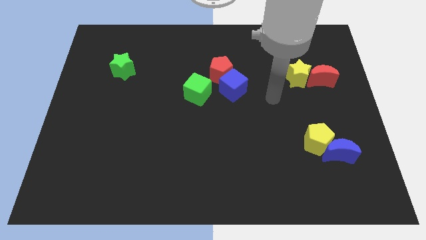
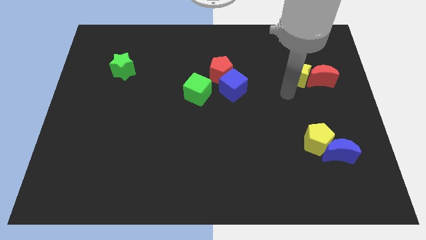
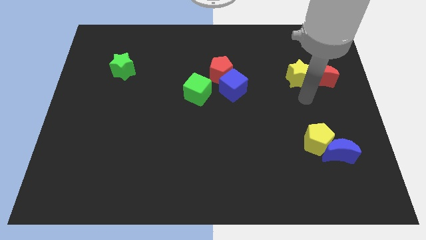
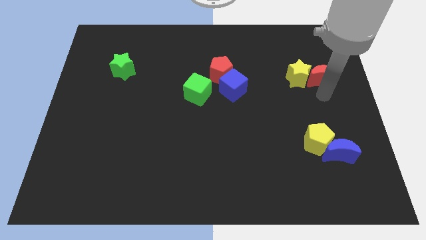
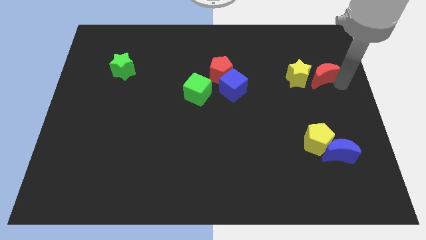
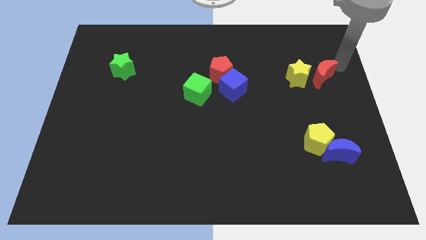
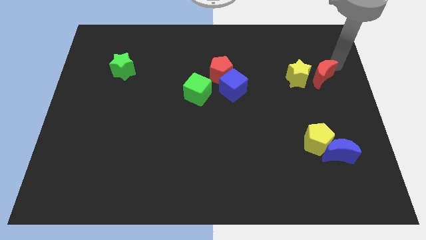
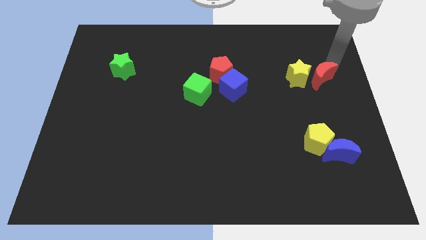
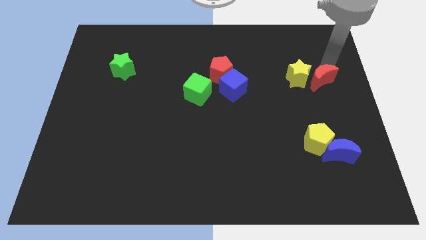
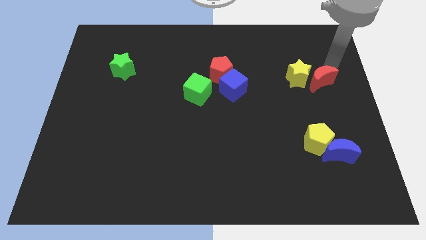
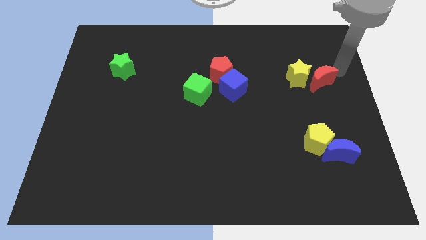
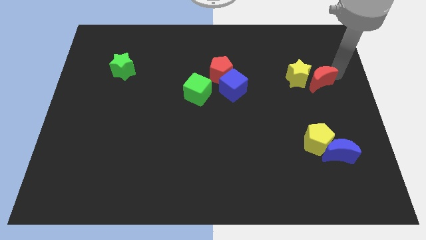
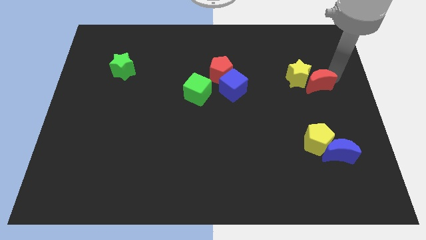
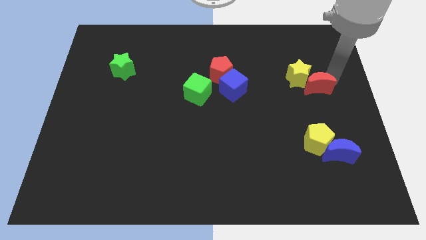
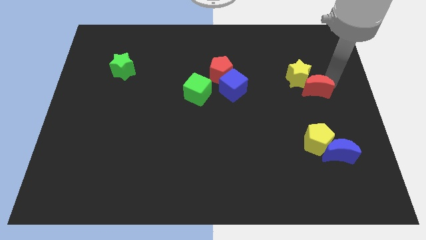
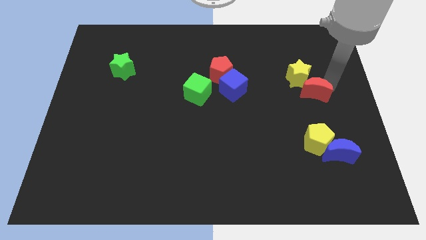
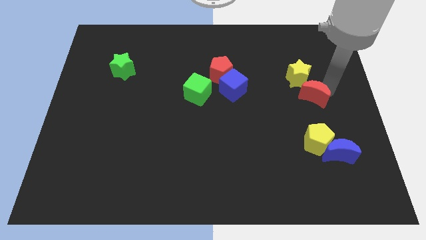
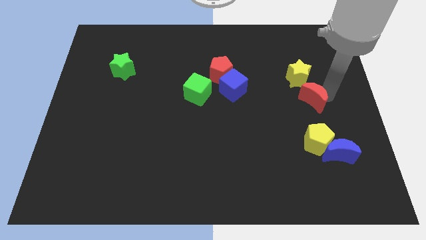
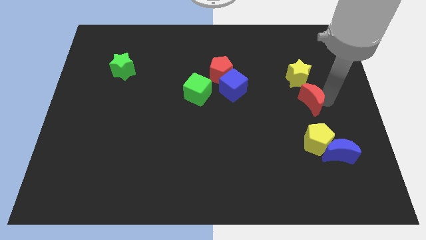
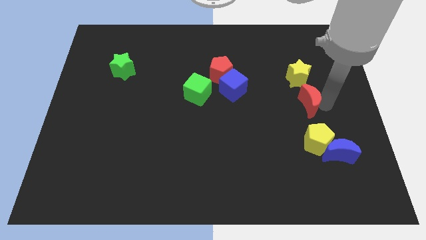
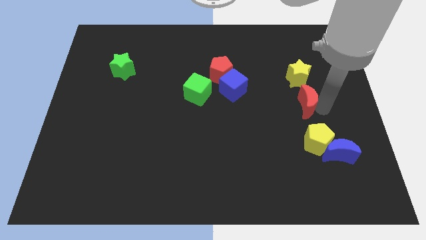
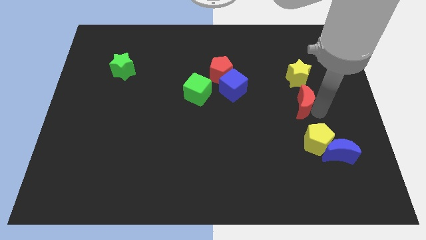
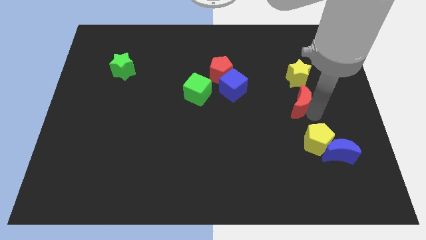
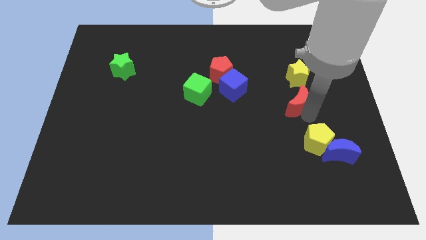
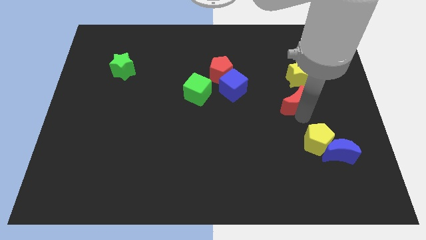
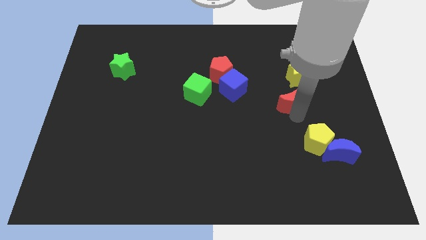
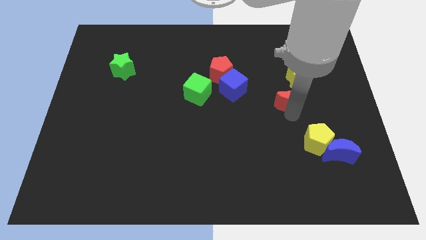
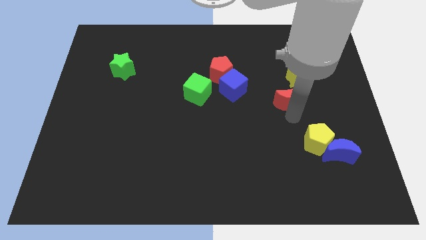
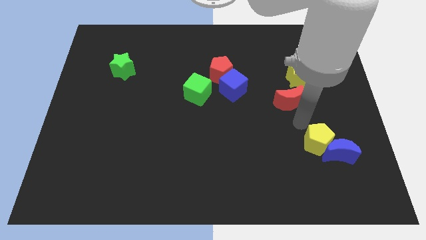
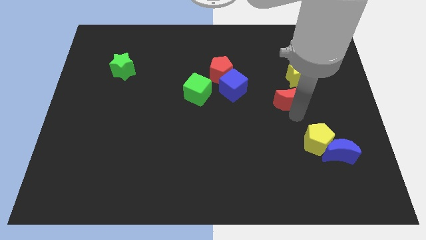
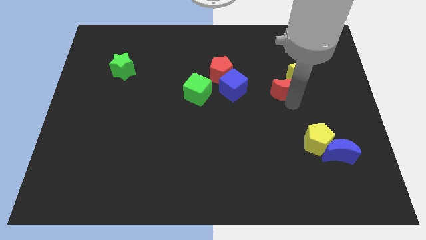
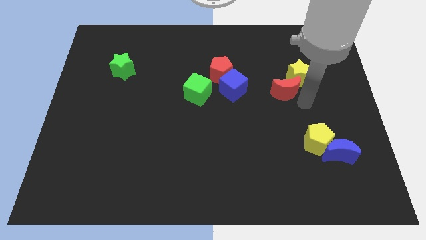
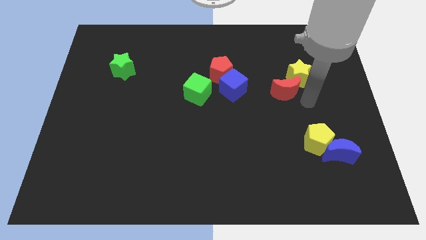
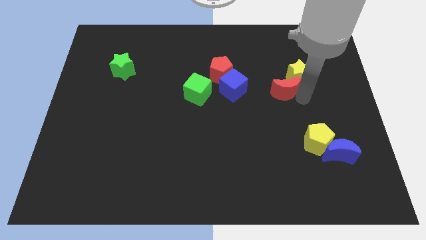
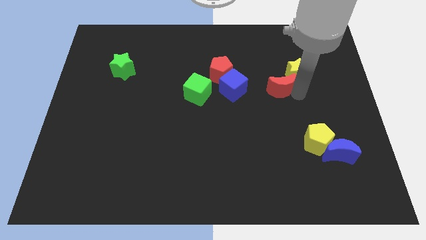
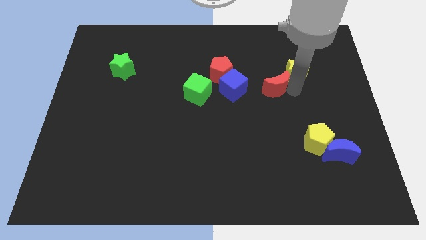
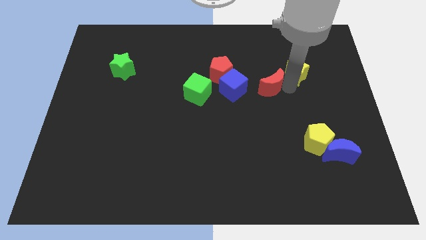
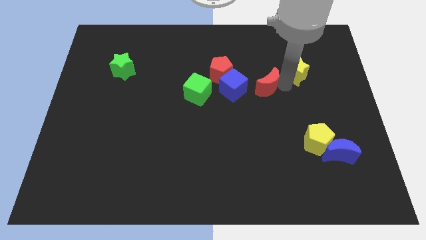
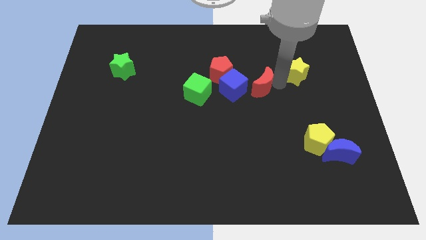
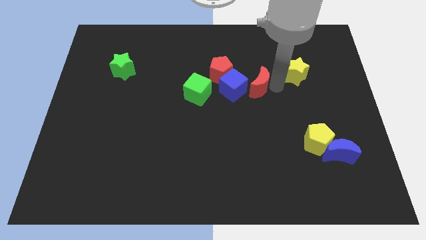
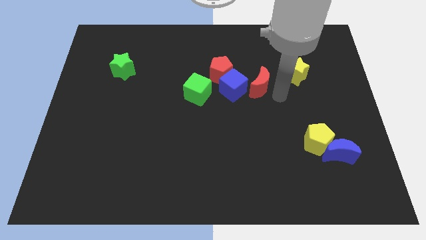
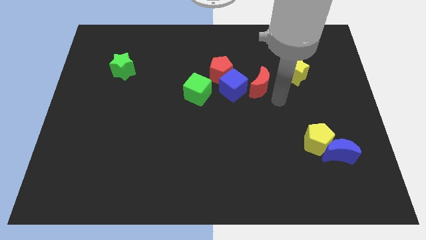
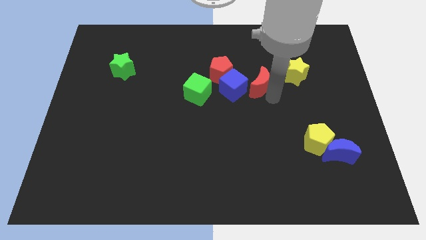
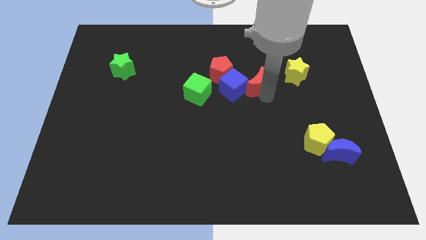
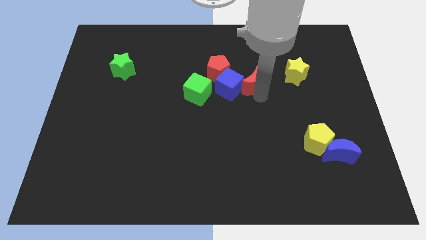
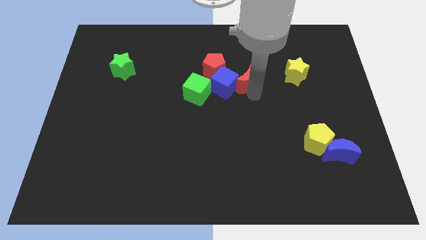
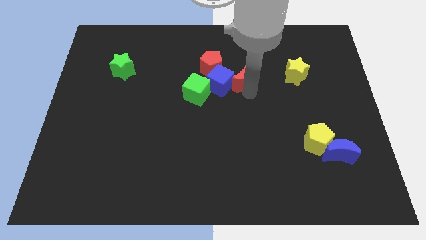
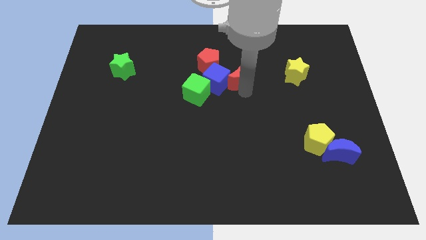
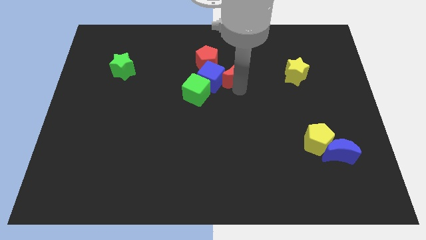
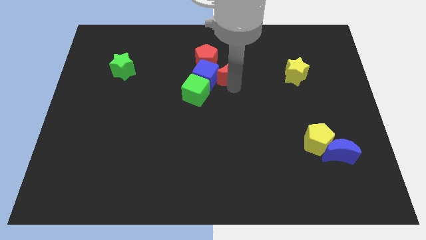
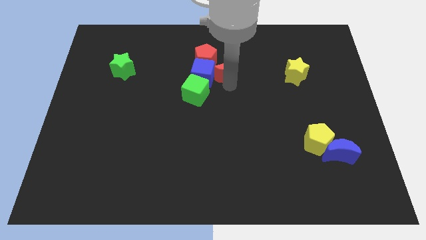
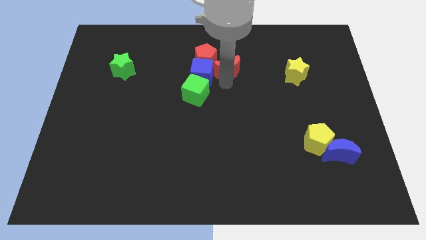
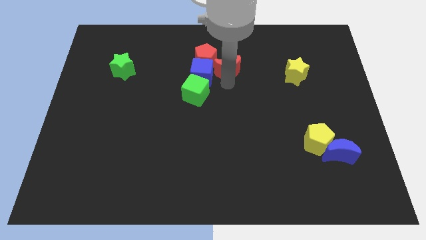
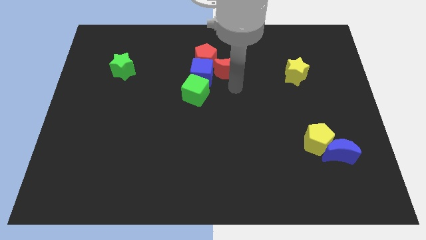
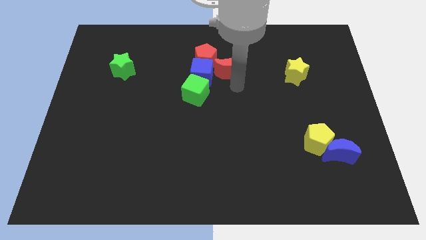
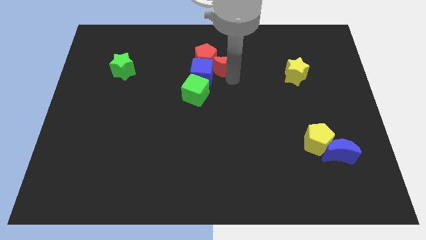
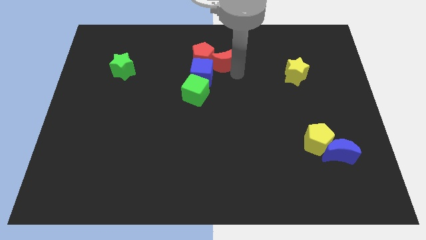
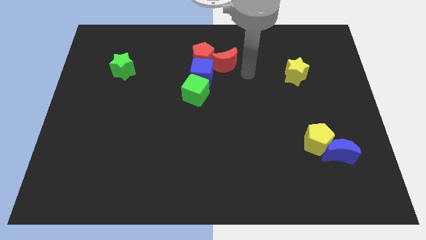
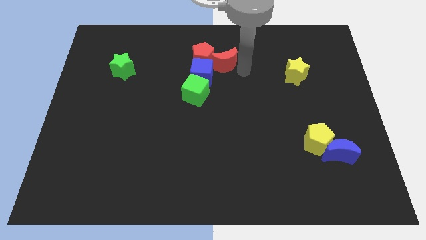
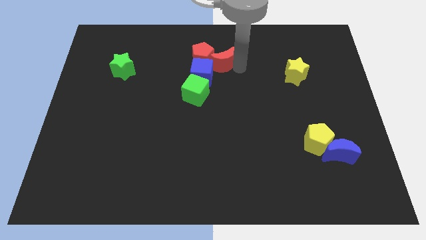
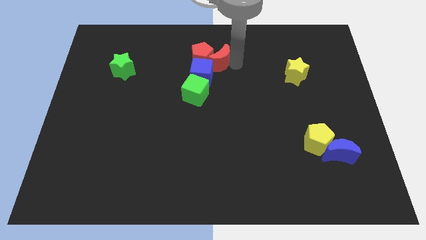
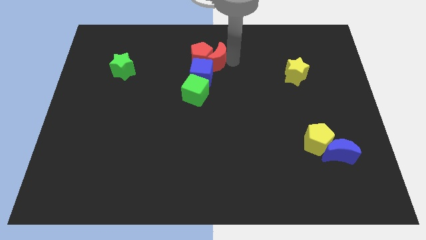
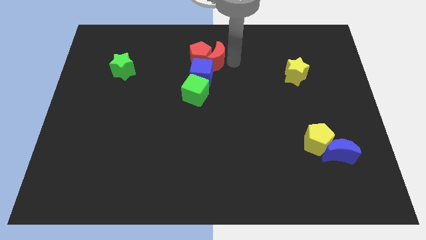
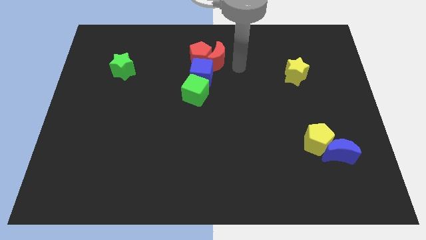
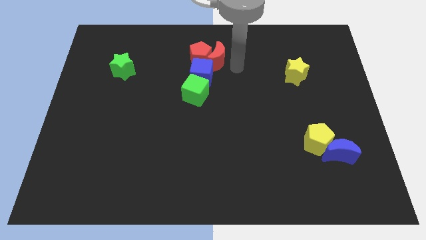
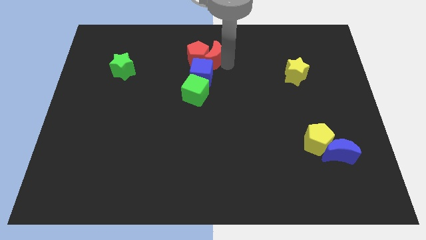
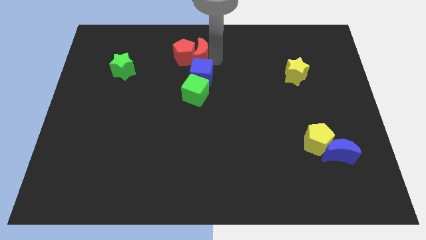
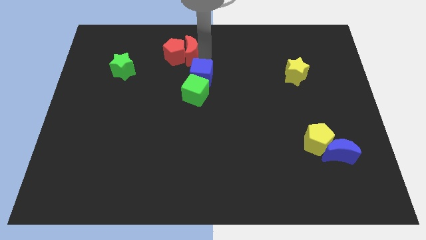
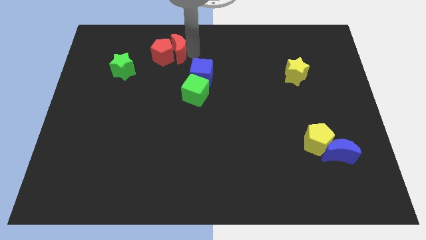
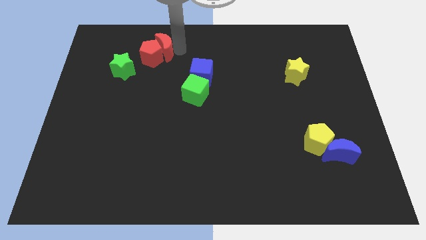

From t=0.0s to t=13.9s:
put the red moon diagonally up and to the right of the green star

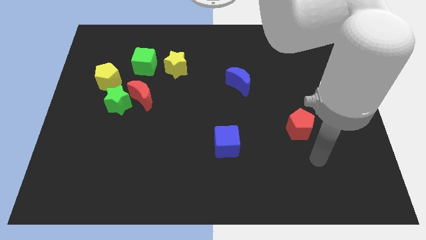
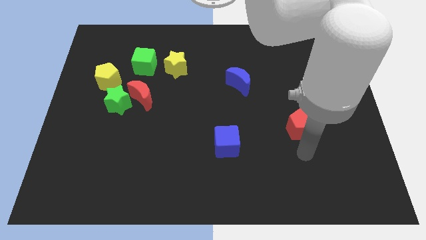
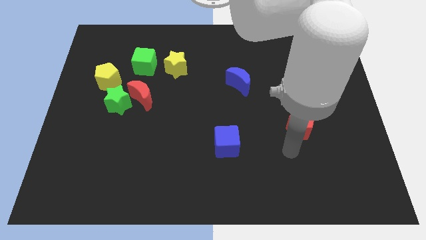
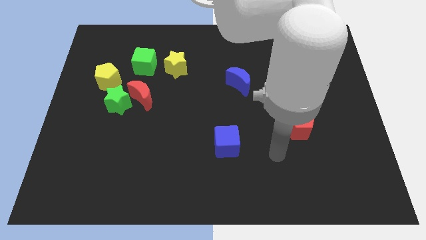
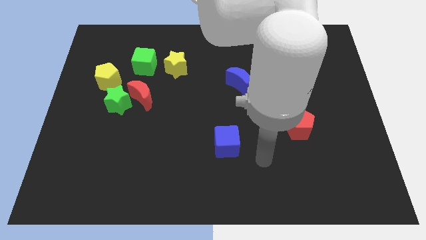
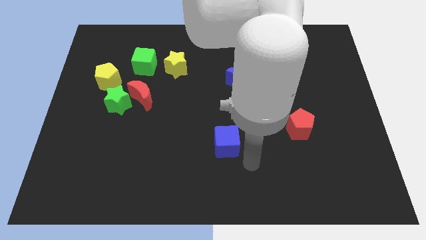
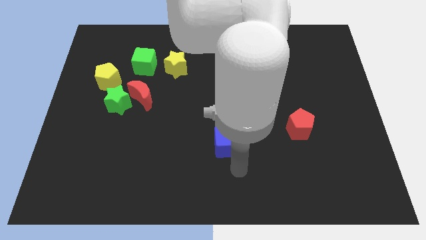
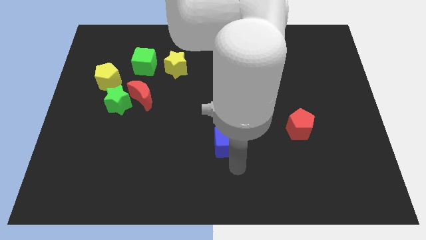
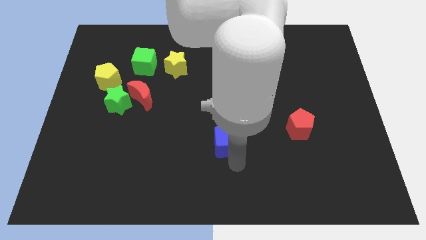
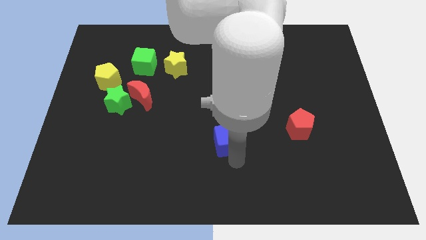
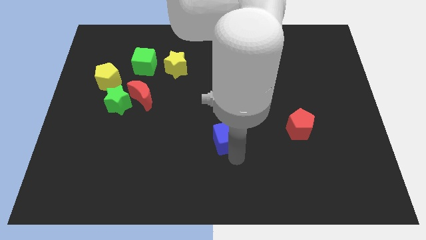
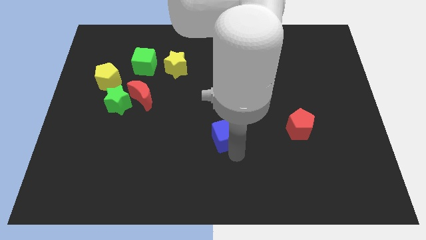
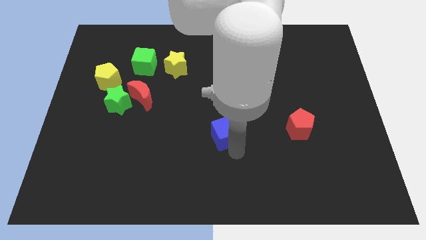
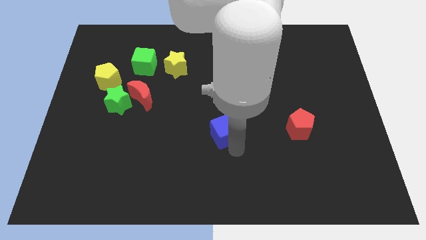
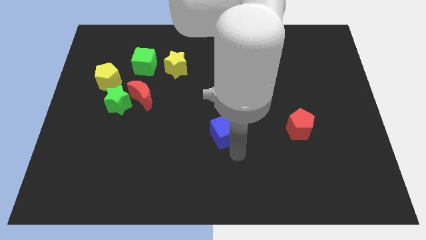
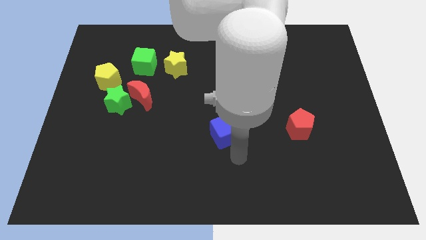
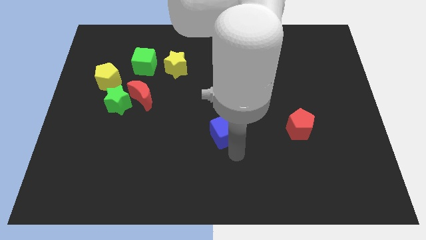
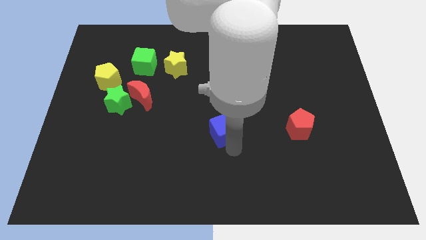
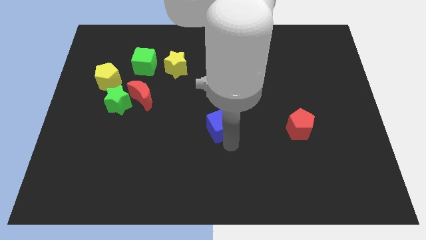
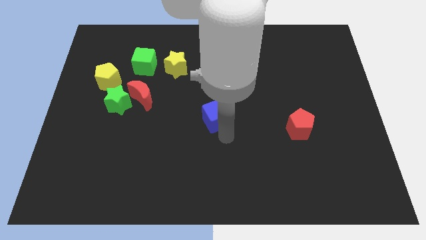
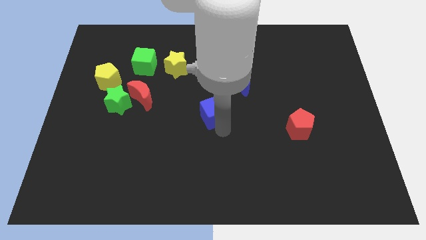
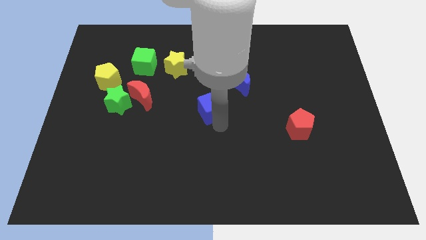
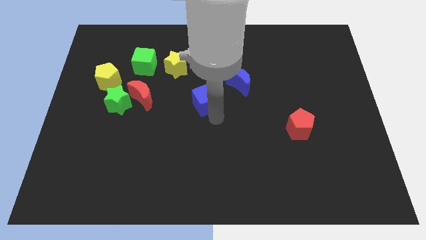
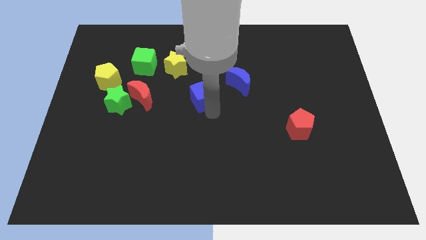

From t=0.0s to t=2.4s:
put the blue cube to the bottom right side of the yellow star
